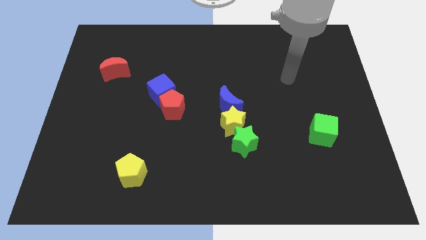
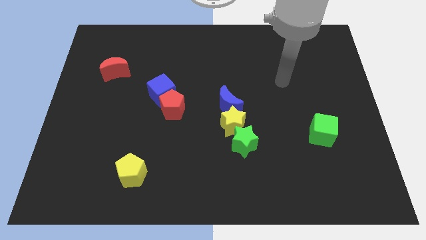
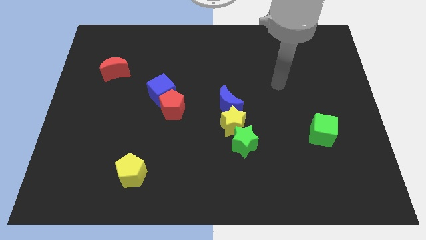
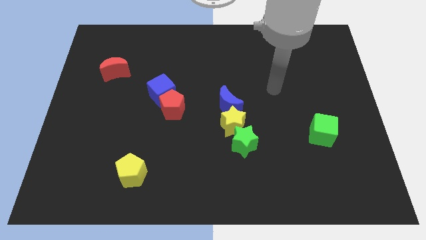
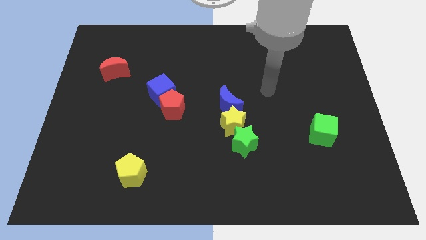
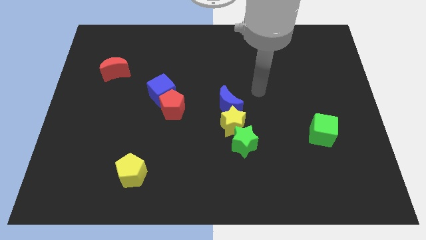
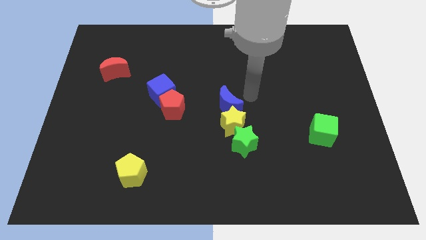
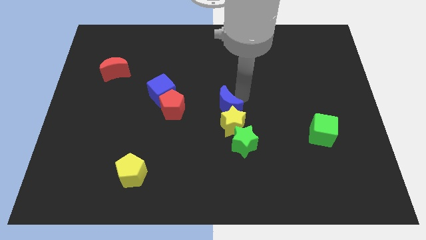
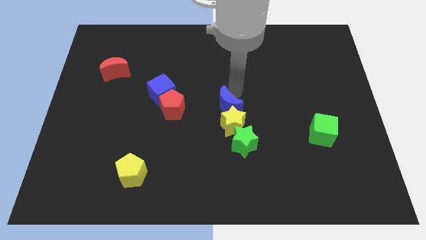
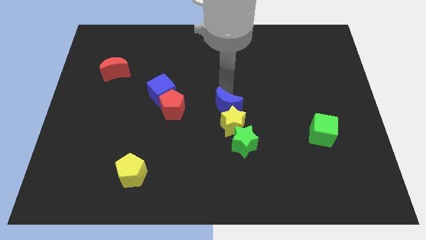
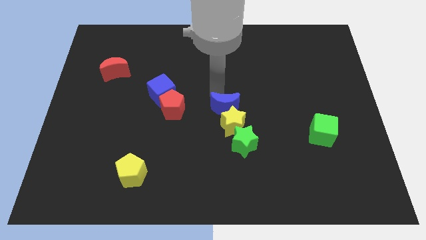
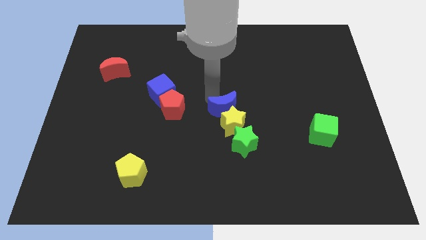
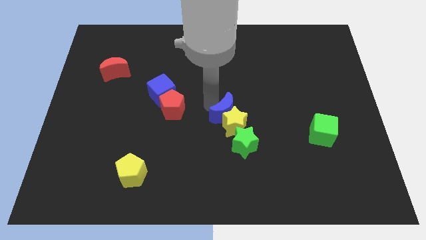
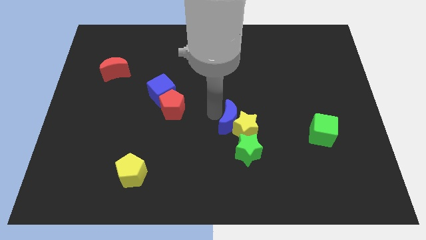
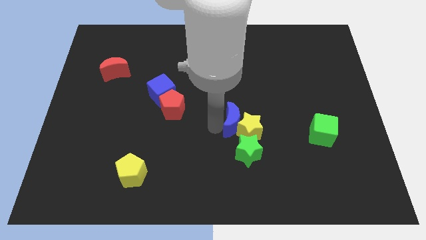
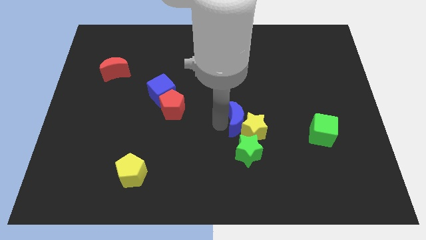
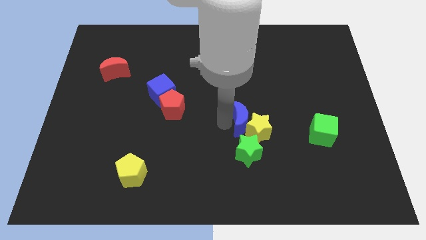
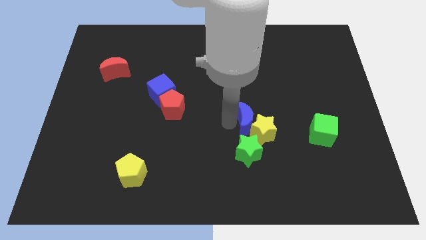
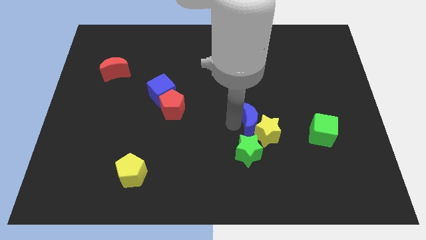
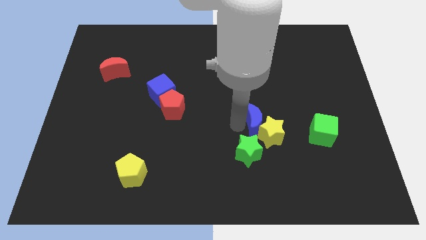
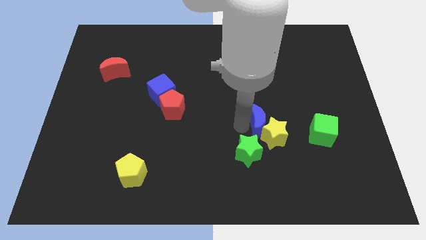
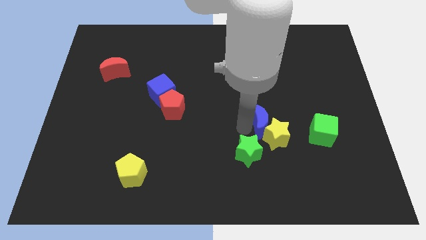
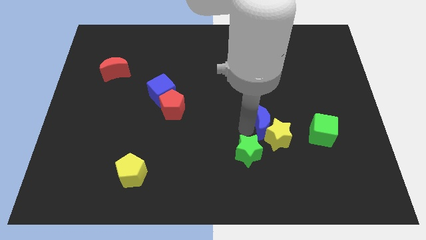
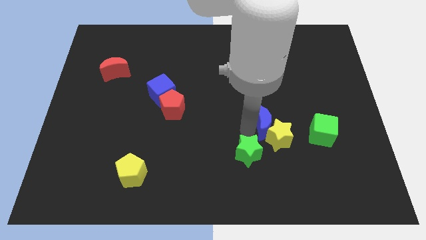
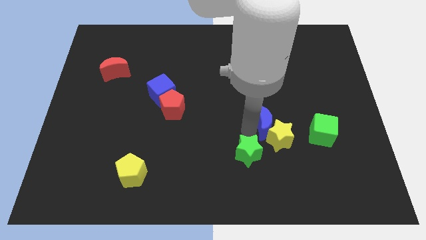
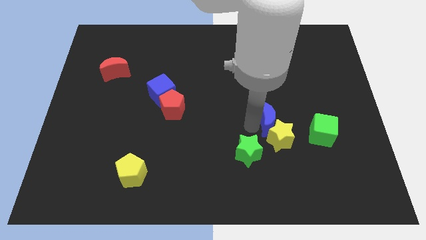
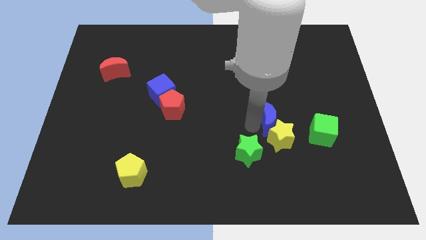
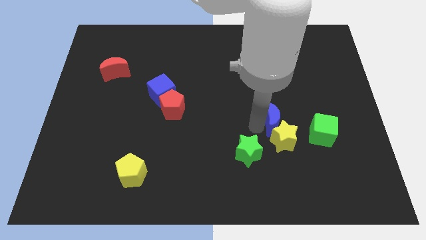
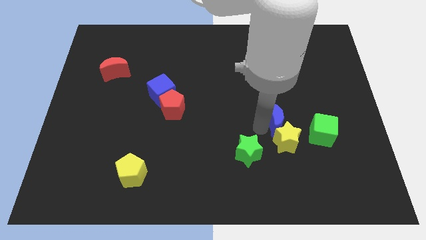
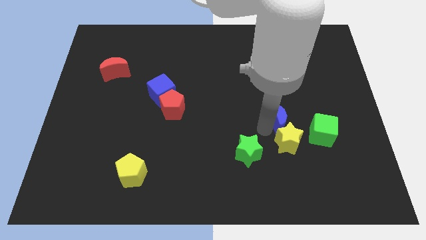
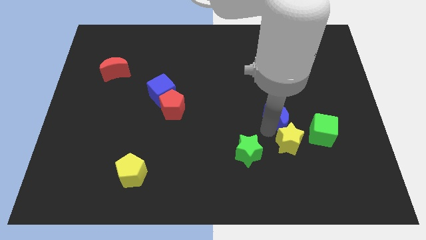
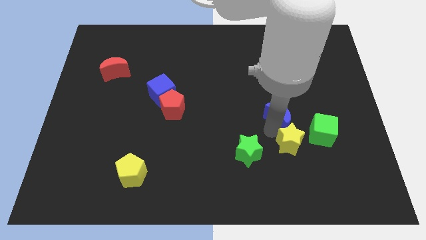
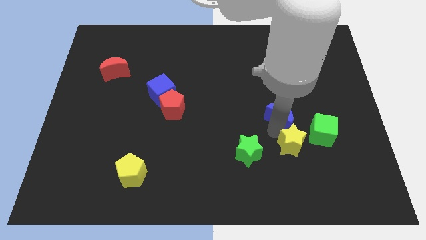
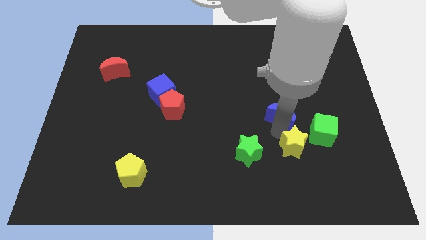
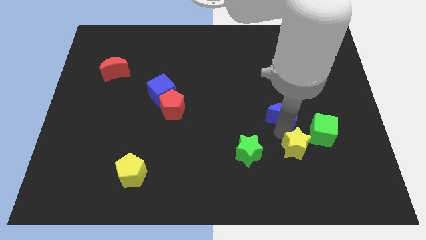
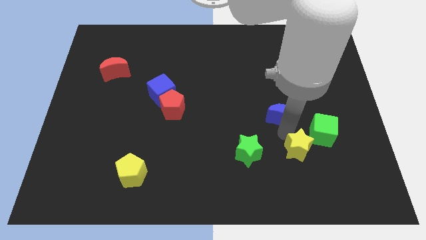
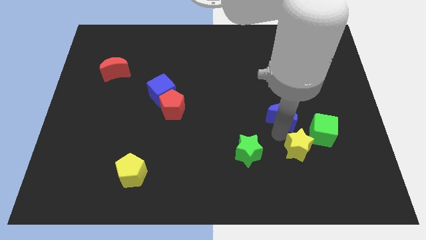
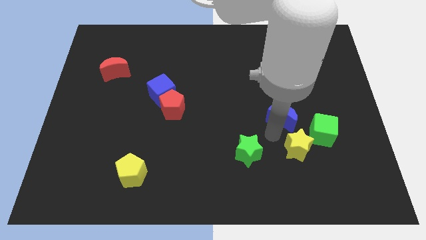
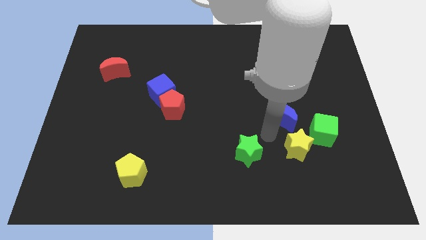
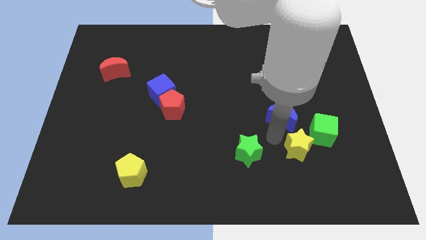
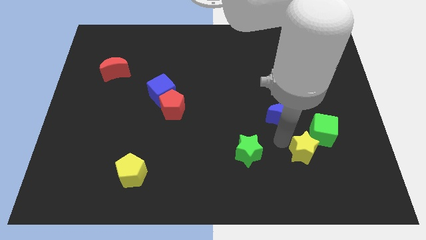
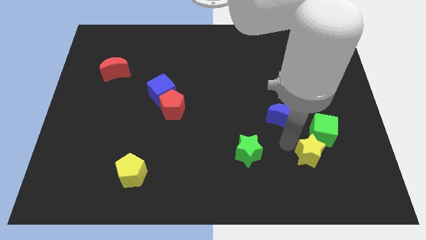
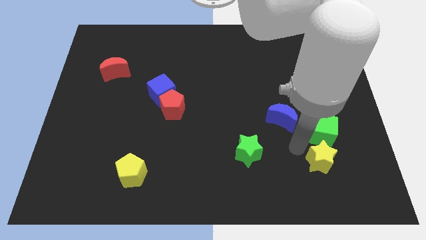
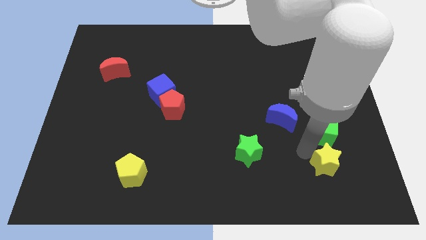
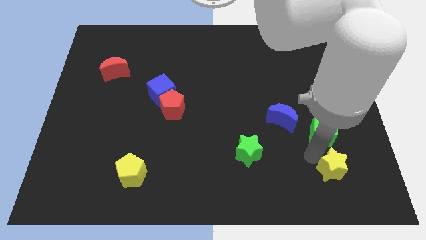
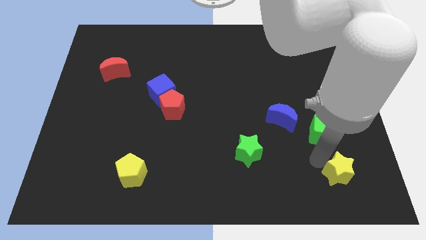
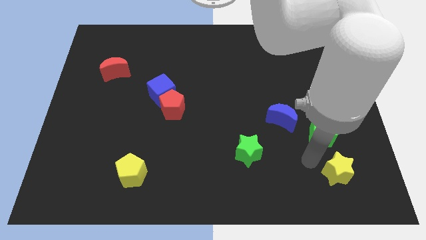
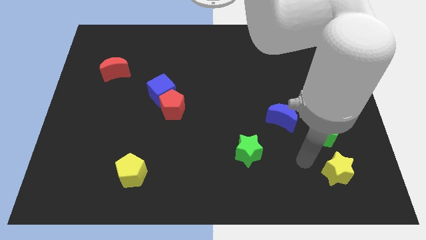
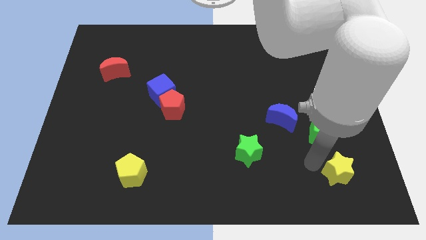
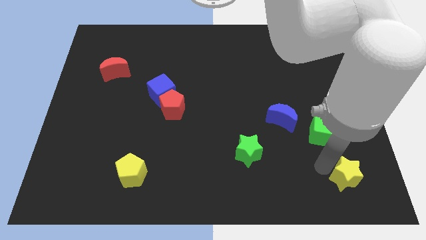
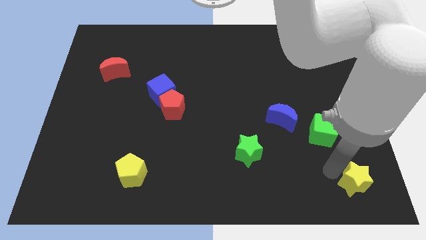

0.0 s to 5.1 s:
put the yellow star to the lower right corner

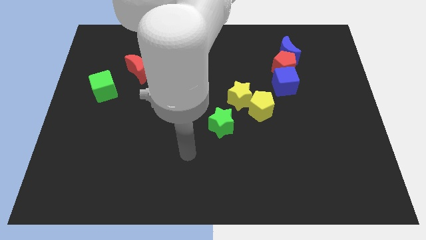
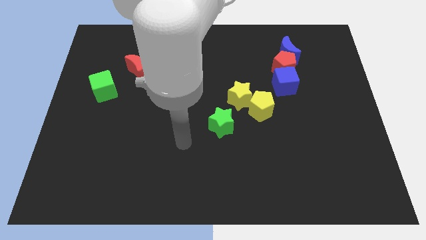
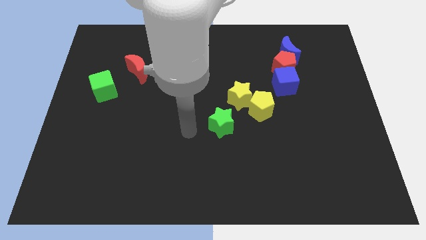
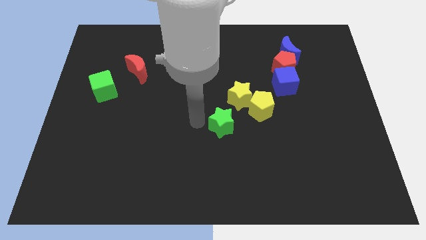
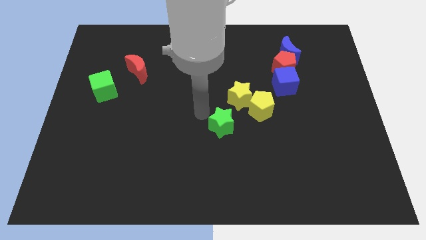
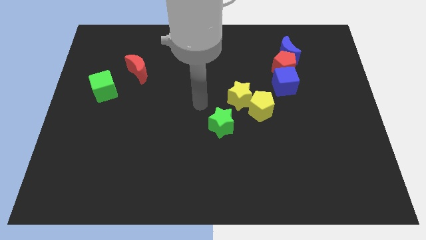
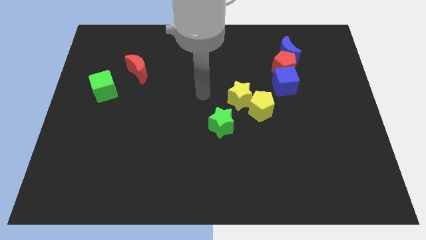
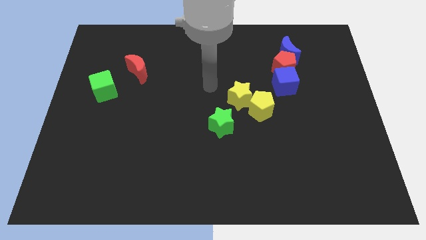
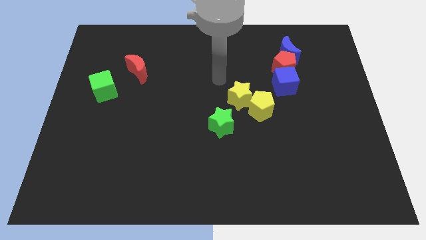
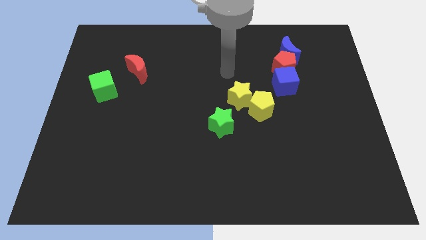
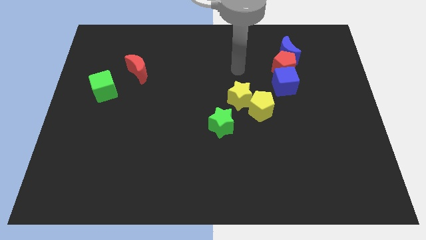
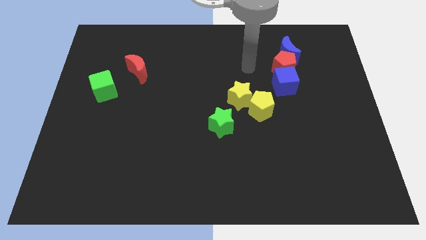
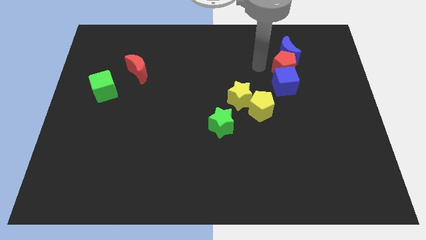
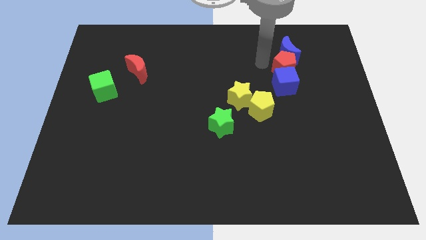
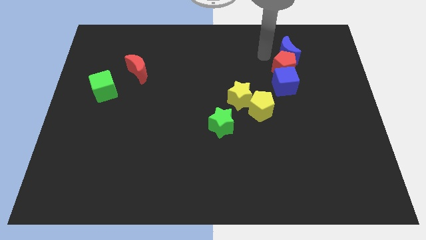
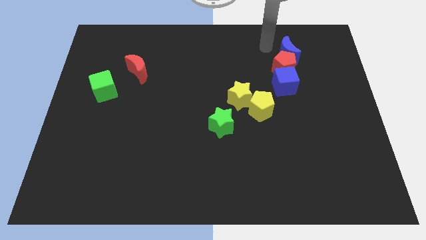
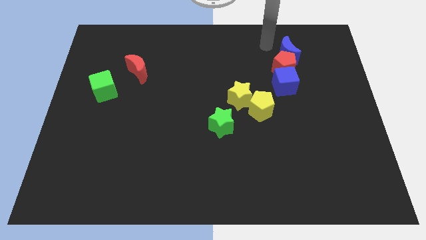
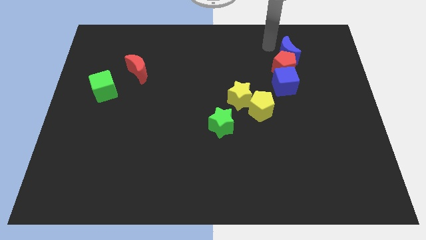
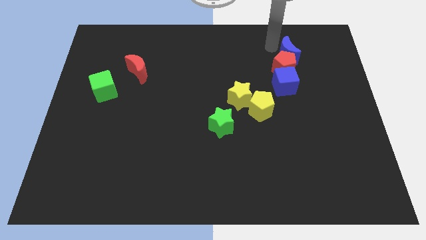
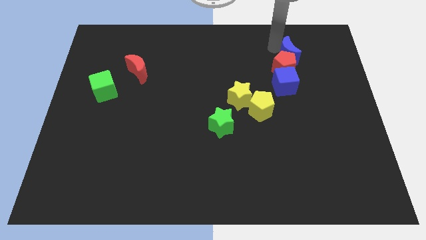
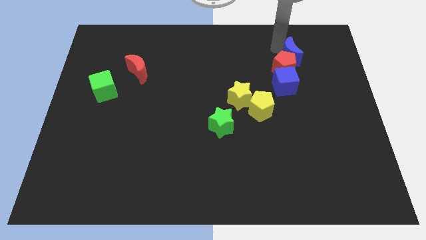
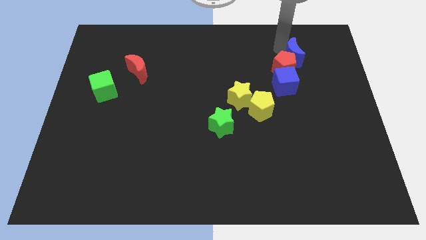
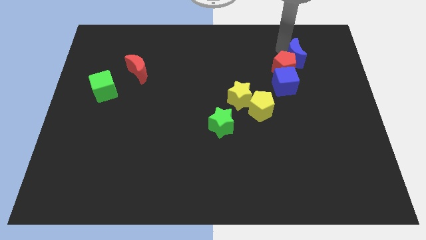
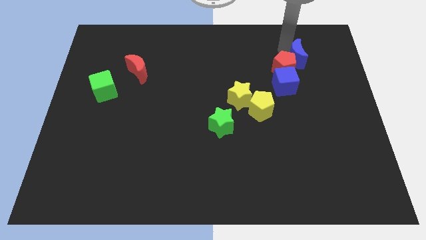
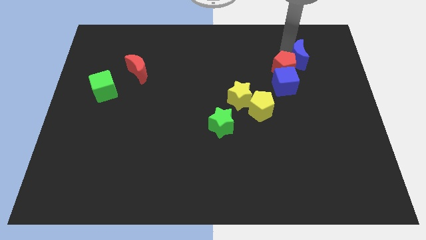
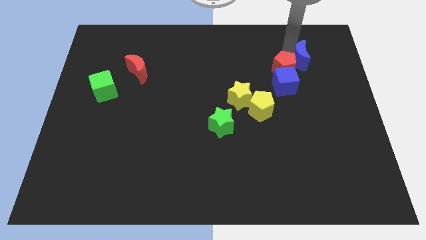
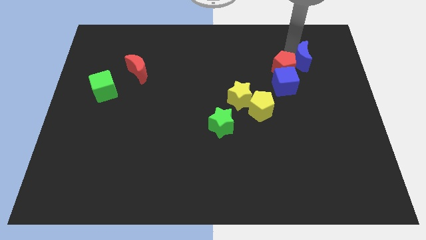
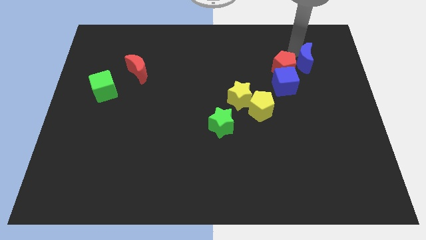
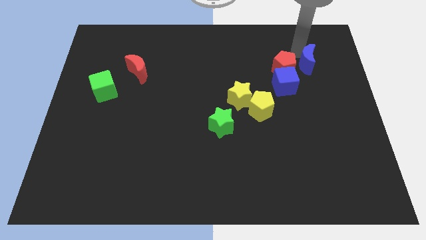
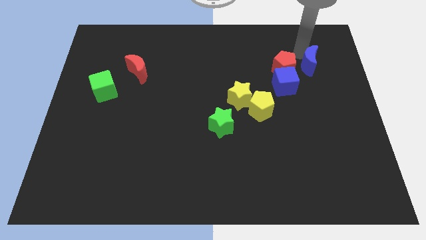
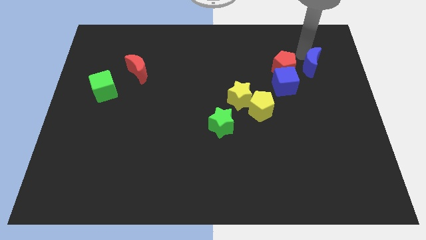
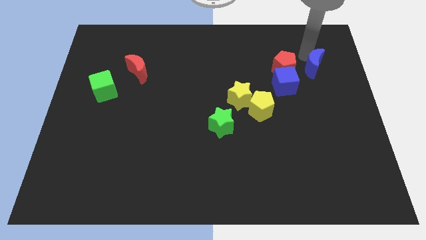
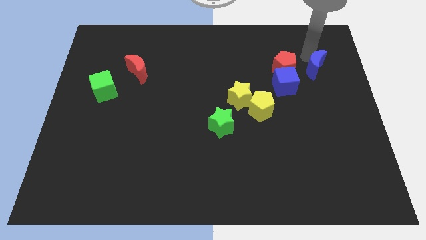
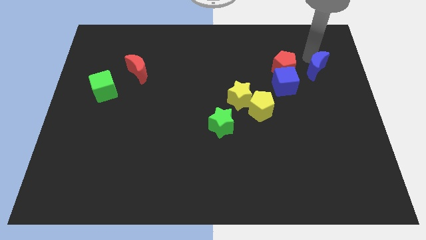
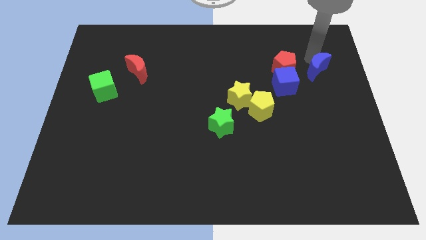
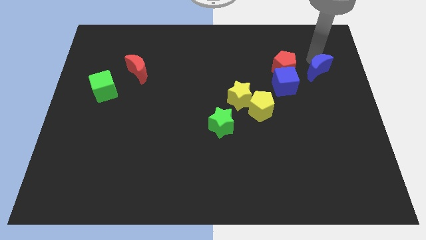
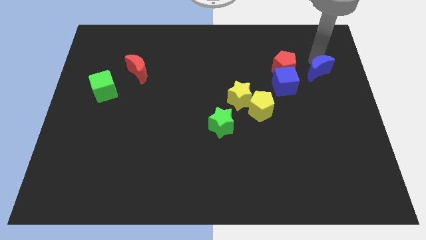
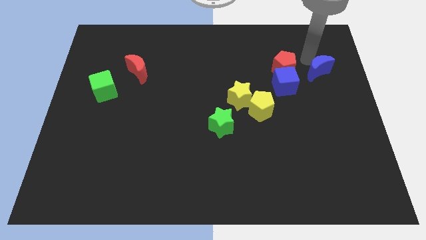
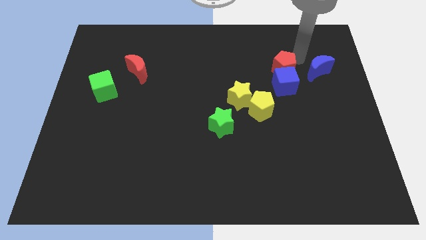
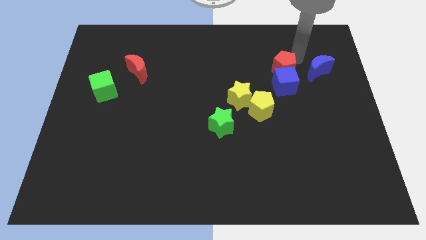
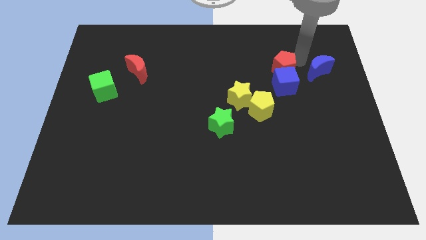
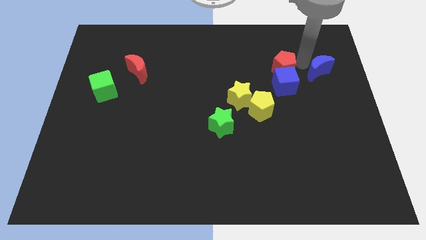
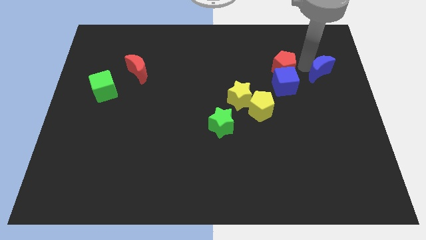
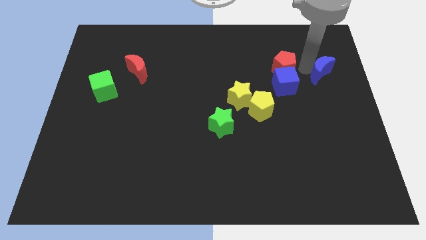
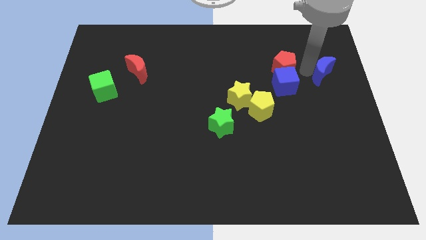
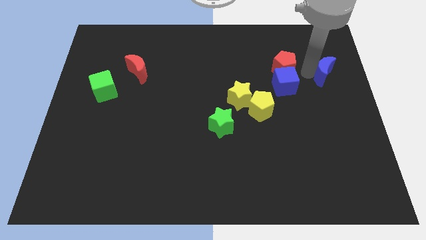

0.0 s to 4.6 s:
put the blue moon to the right side
